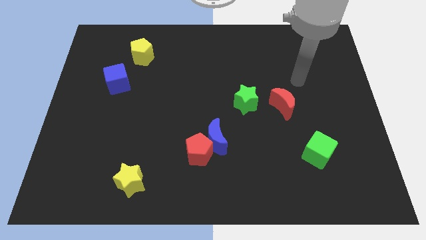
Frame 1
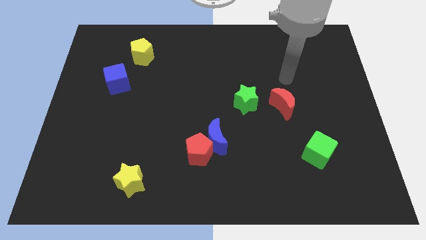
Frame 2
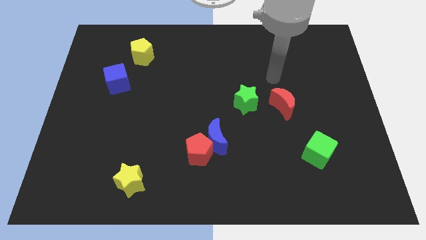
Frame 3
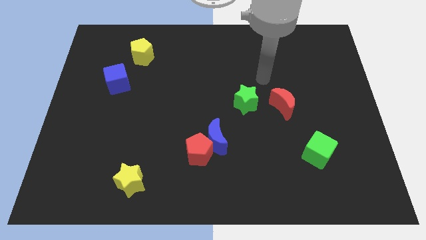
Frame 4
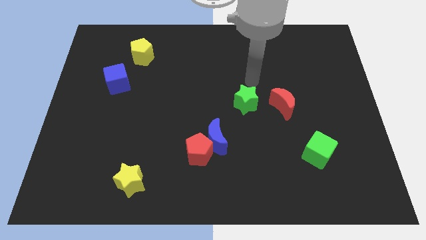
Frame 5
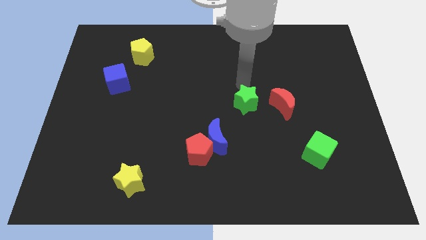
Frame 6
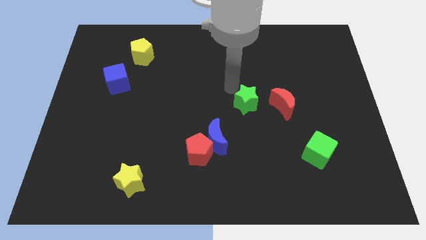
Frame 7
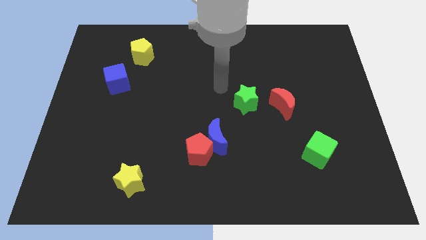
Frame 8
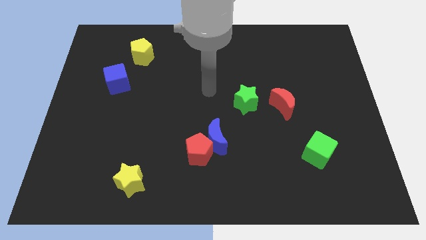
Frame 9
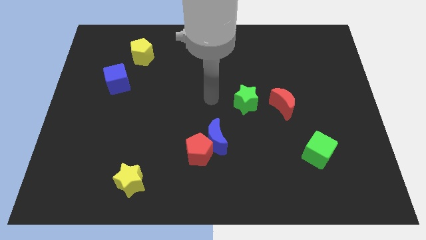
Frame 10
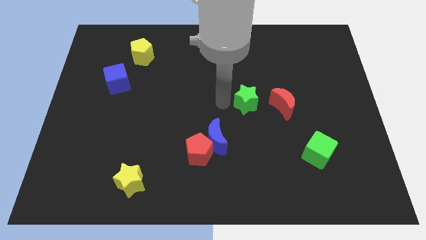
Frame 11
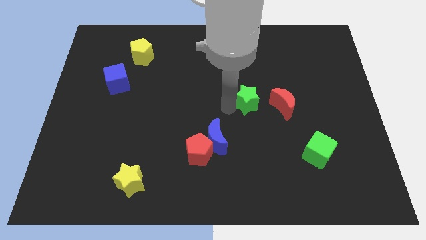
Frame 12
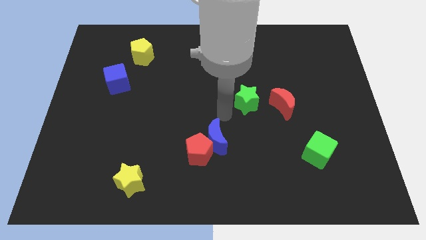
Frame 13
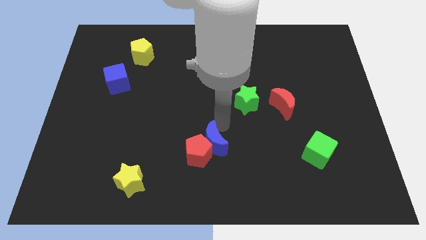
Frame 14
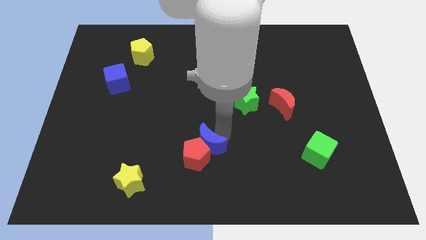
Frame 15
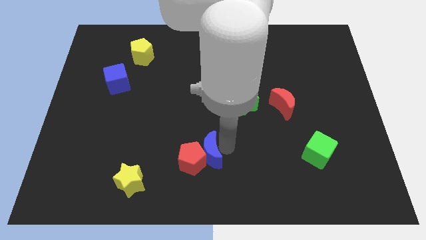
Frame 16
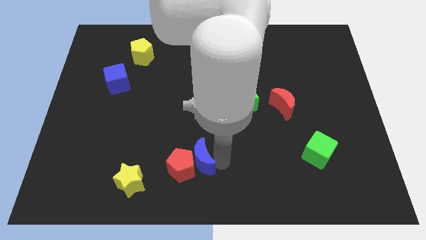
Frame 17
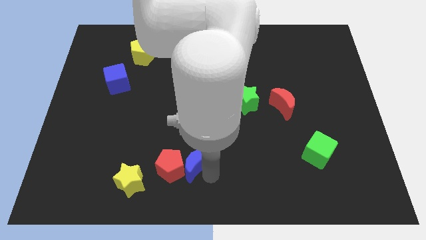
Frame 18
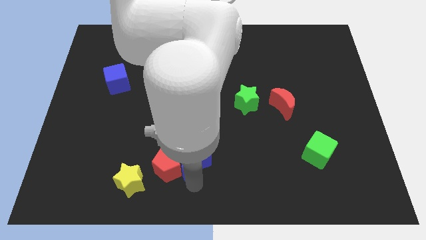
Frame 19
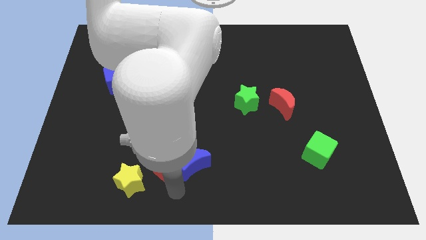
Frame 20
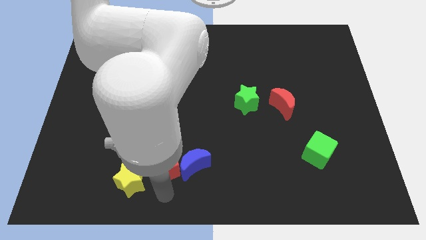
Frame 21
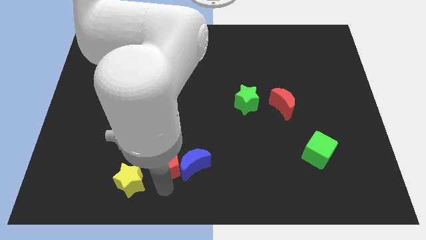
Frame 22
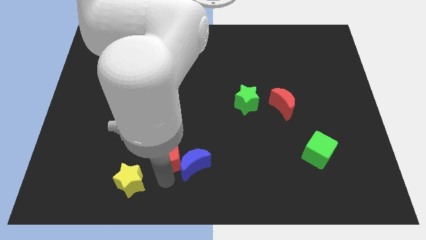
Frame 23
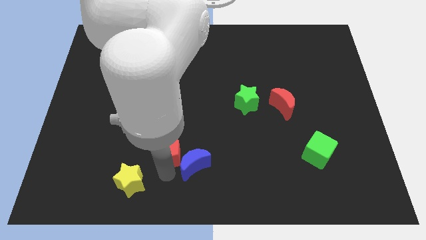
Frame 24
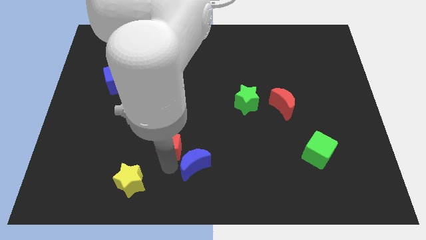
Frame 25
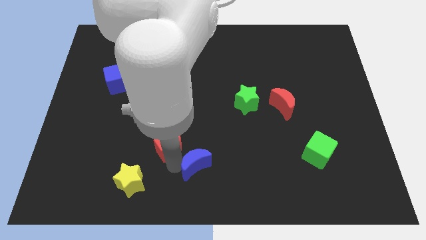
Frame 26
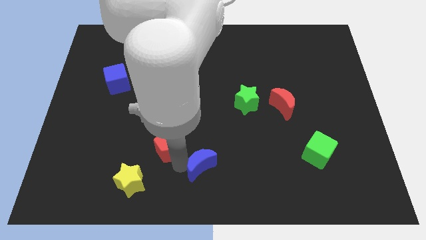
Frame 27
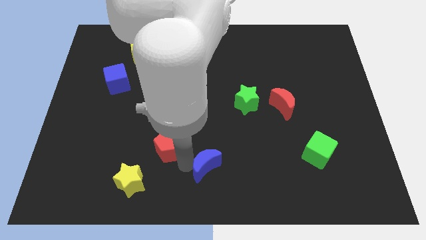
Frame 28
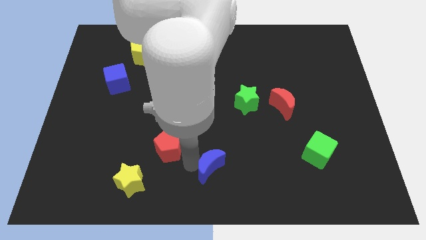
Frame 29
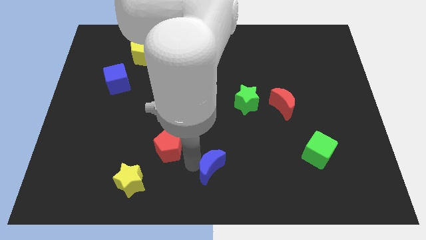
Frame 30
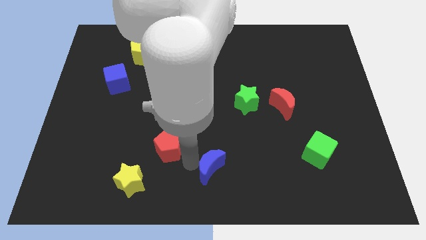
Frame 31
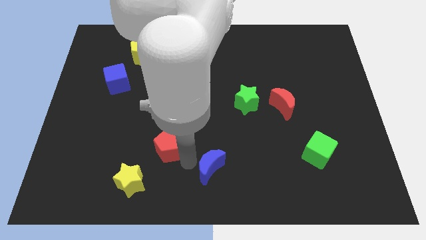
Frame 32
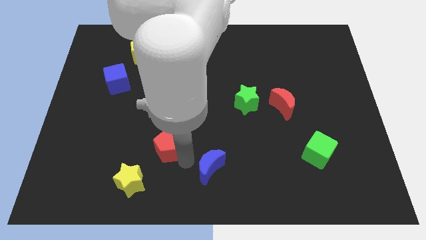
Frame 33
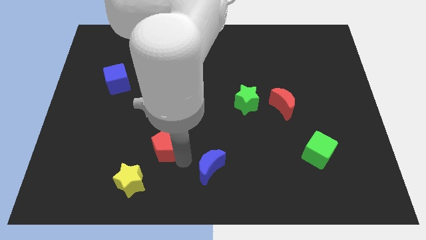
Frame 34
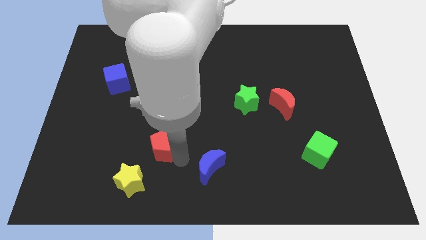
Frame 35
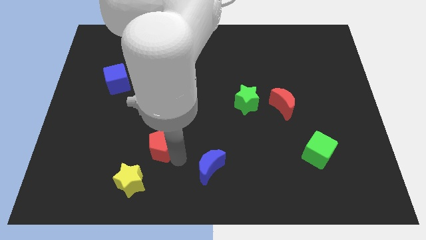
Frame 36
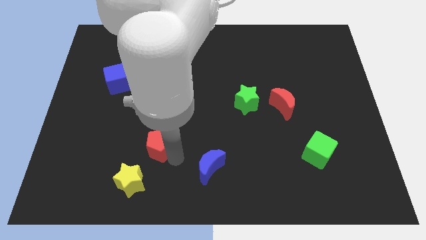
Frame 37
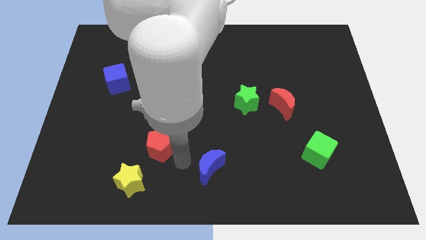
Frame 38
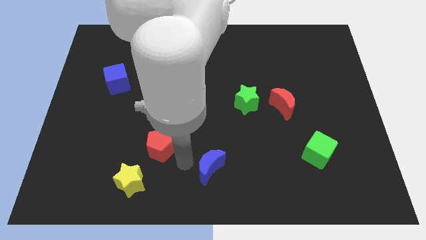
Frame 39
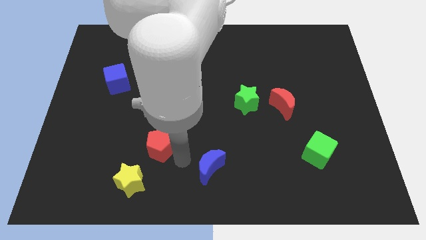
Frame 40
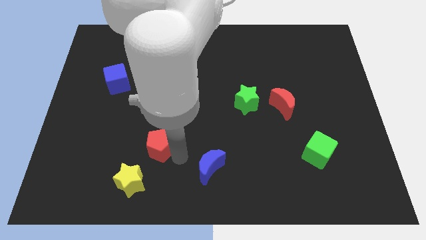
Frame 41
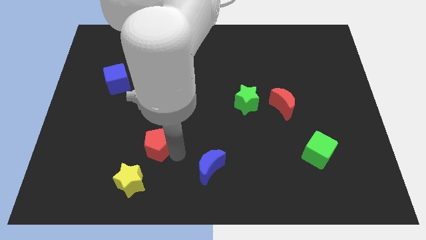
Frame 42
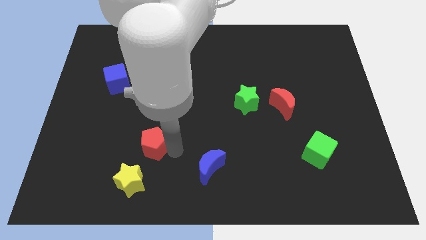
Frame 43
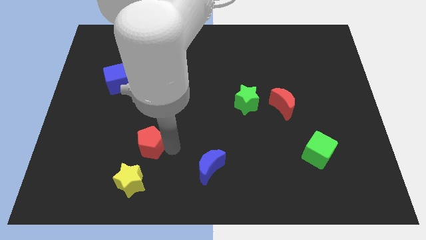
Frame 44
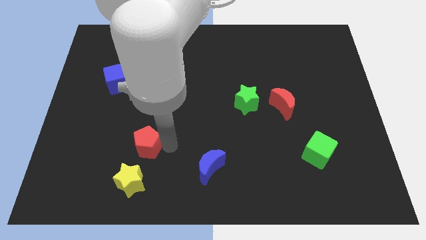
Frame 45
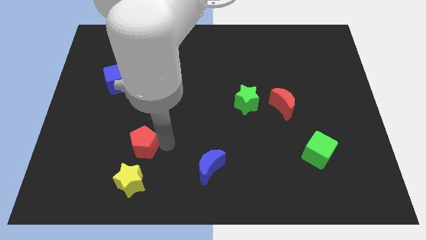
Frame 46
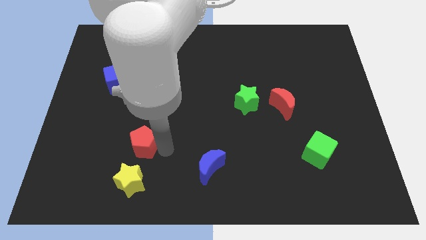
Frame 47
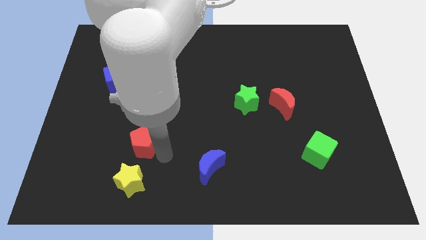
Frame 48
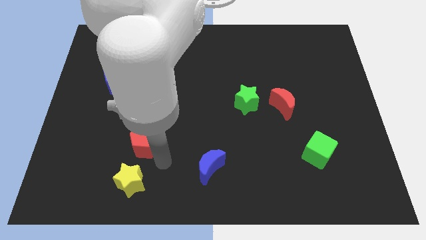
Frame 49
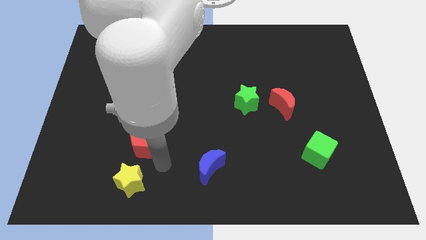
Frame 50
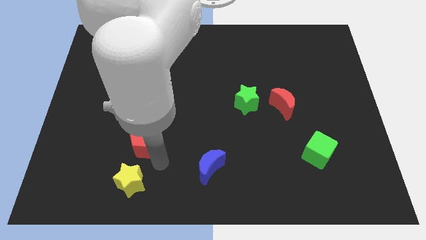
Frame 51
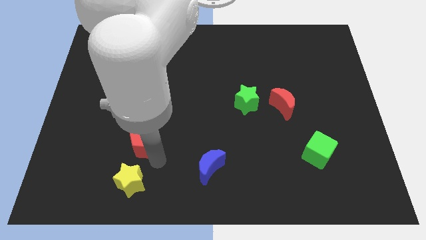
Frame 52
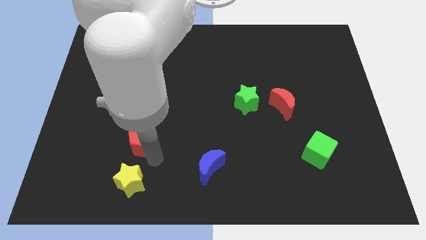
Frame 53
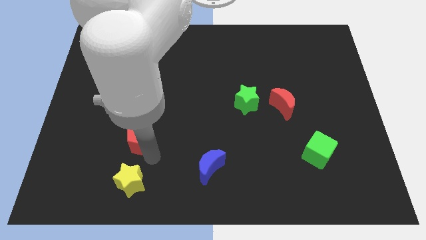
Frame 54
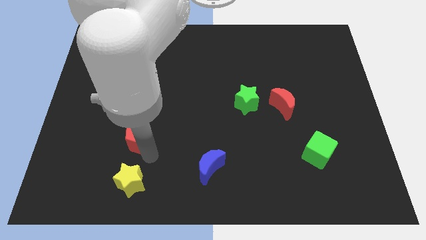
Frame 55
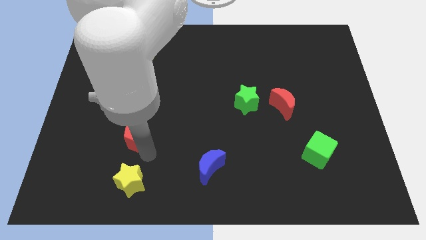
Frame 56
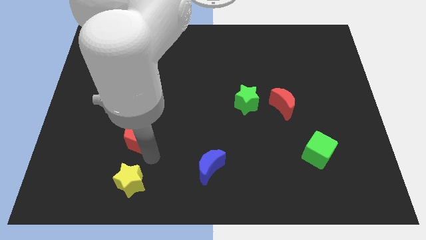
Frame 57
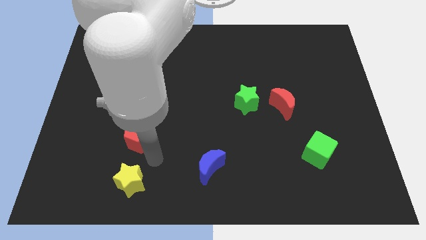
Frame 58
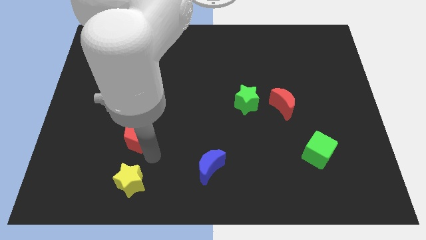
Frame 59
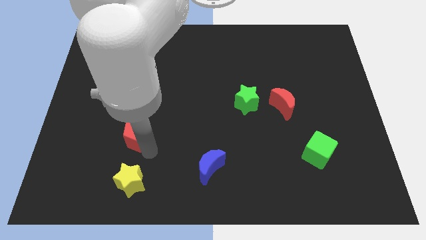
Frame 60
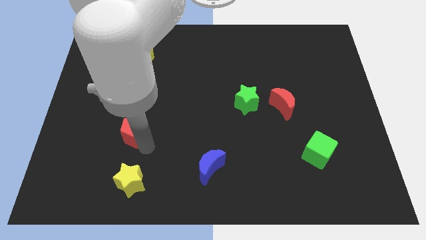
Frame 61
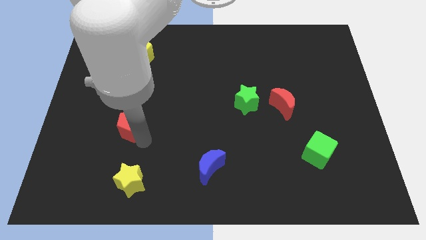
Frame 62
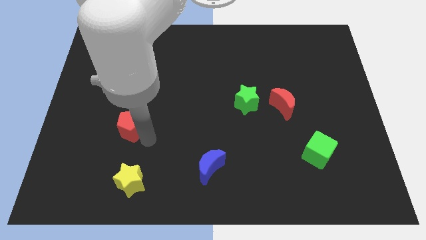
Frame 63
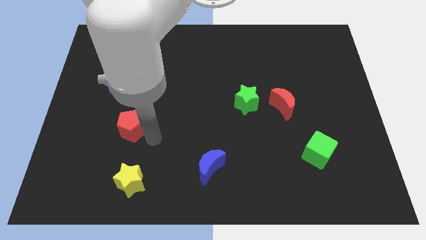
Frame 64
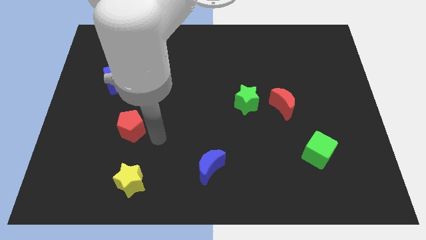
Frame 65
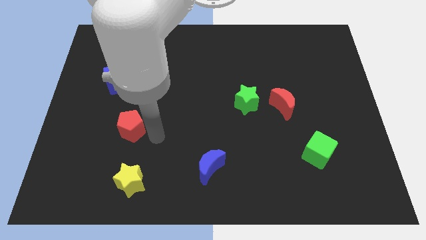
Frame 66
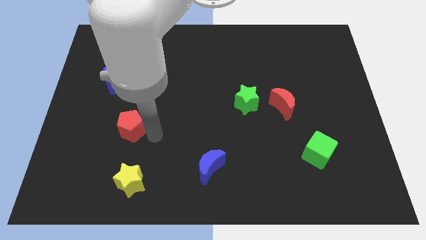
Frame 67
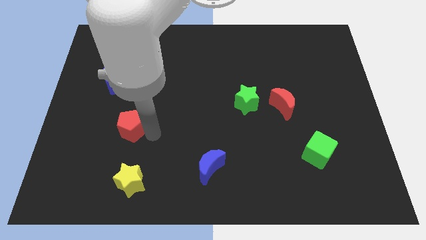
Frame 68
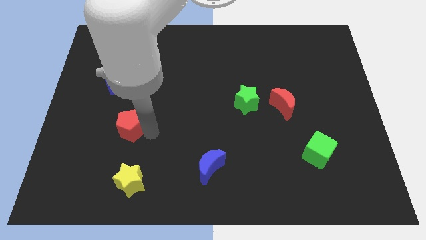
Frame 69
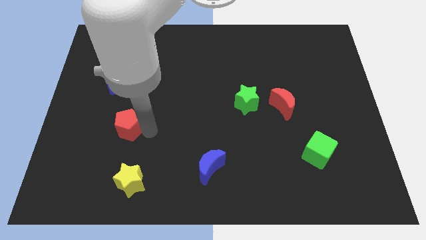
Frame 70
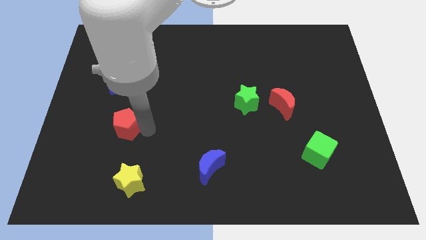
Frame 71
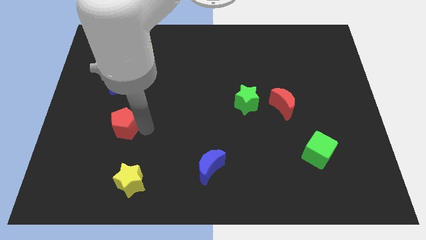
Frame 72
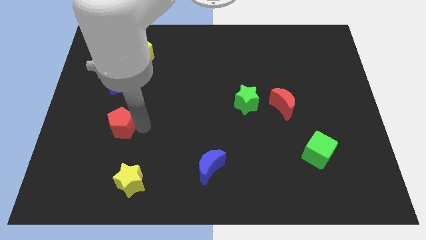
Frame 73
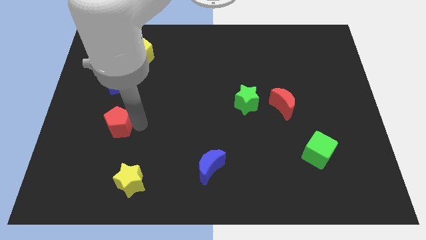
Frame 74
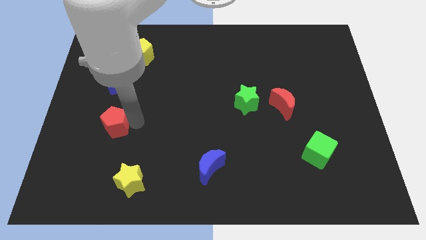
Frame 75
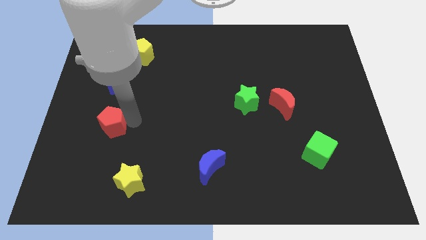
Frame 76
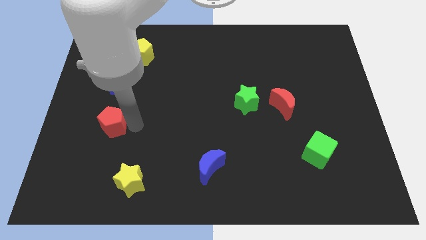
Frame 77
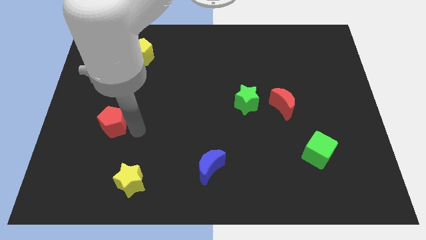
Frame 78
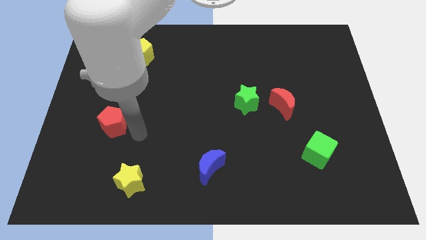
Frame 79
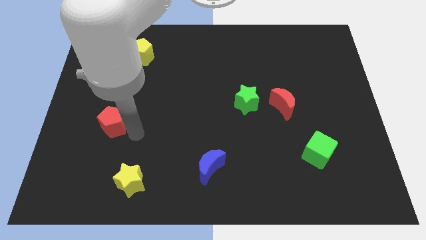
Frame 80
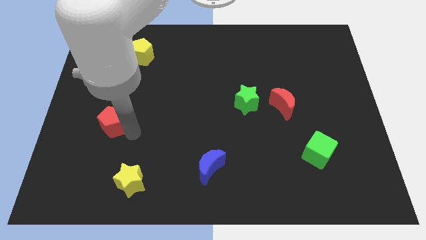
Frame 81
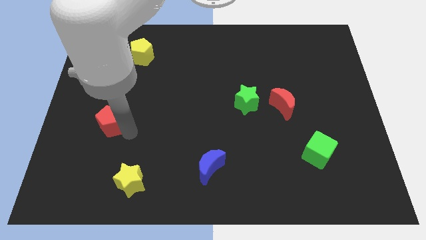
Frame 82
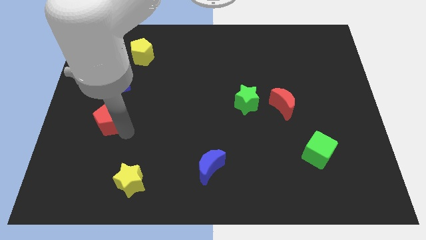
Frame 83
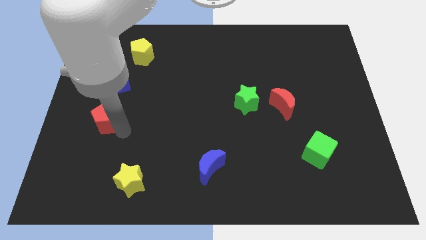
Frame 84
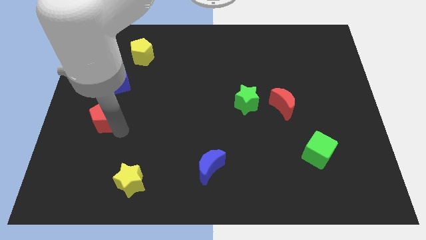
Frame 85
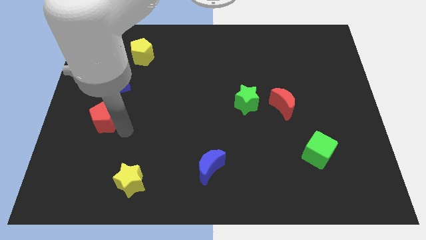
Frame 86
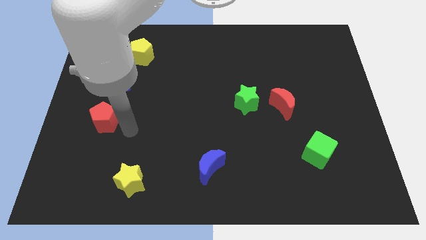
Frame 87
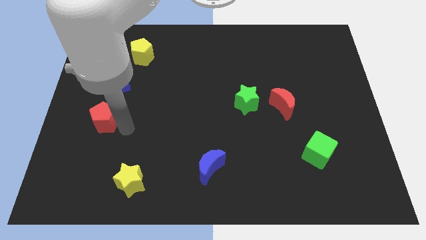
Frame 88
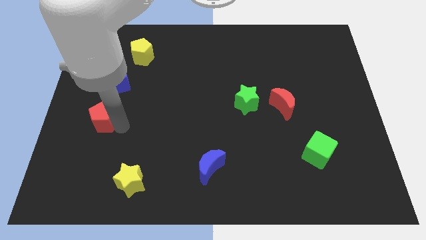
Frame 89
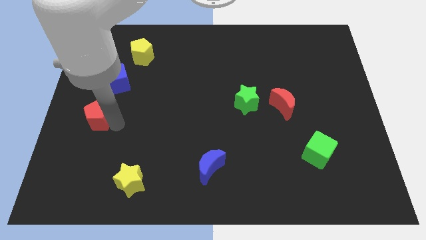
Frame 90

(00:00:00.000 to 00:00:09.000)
put the red pentagon to the left side
